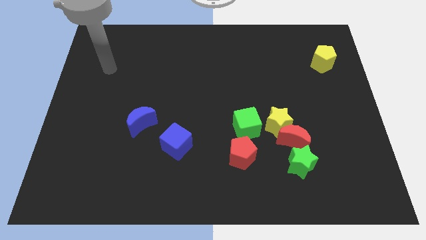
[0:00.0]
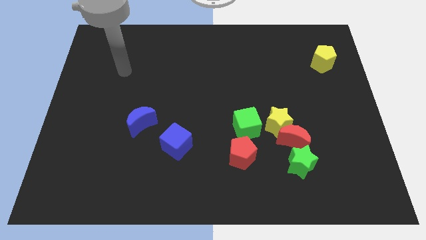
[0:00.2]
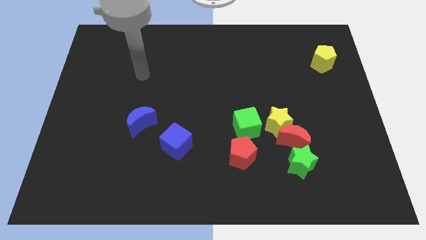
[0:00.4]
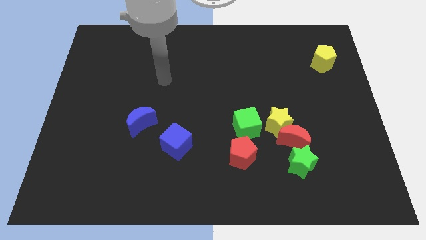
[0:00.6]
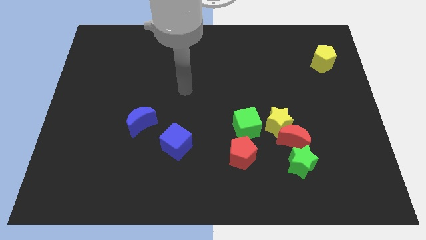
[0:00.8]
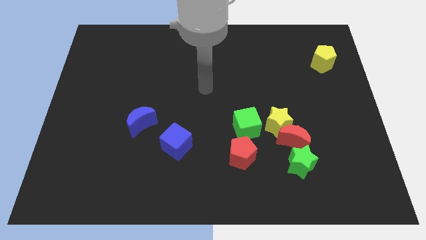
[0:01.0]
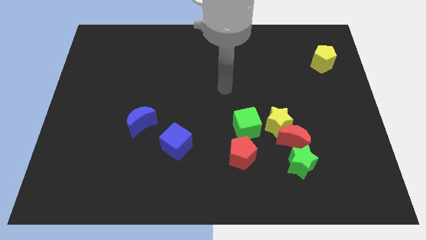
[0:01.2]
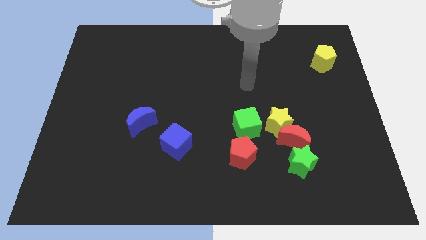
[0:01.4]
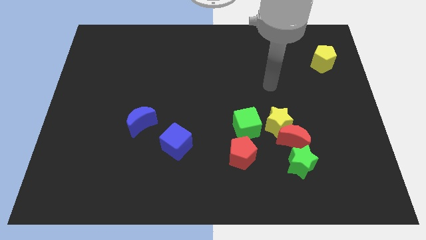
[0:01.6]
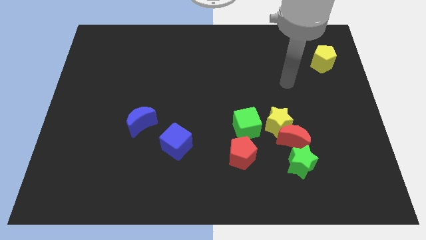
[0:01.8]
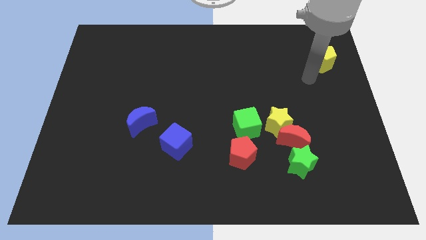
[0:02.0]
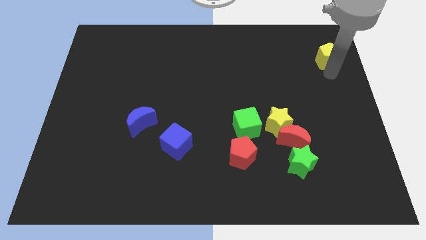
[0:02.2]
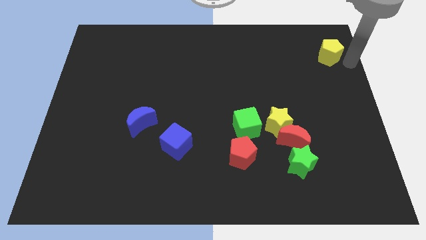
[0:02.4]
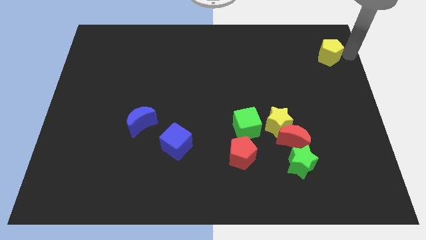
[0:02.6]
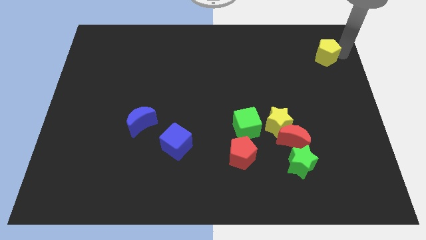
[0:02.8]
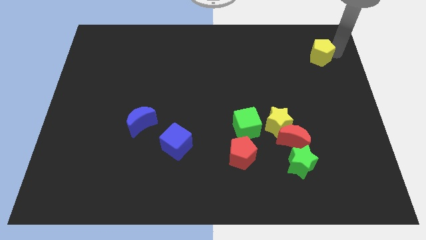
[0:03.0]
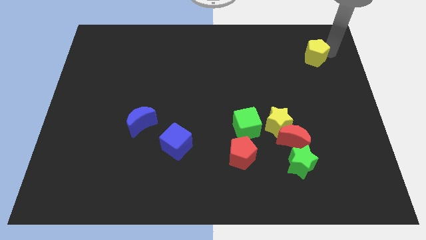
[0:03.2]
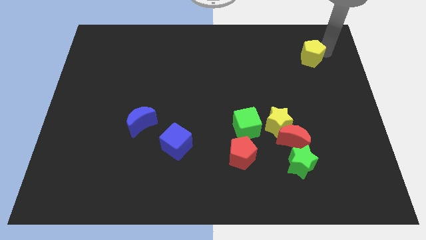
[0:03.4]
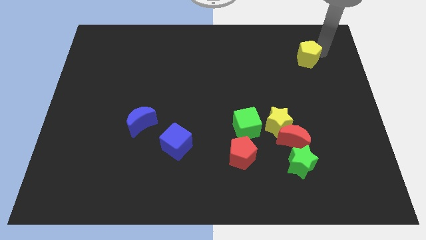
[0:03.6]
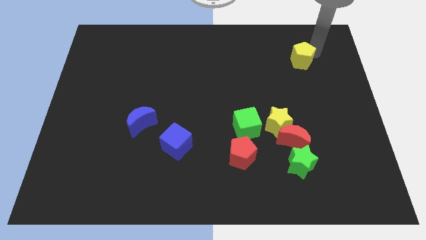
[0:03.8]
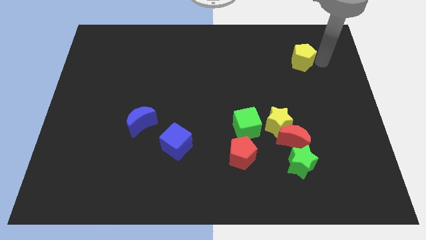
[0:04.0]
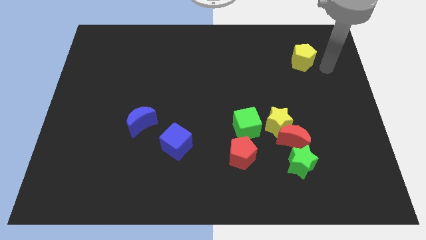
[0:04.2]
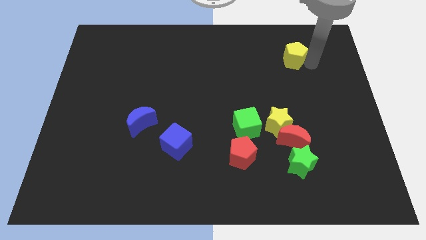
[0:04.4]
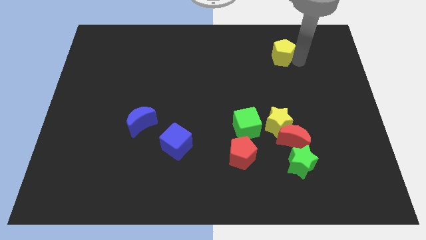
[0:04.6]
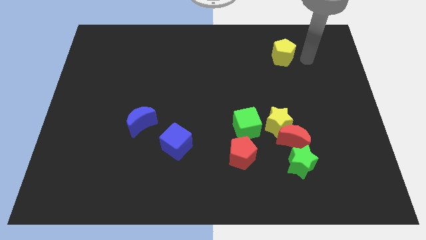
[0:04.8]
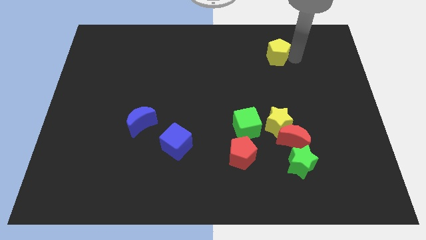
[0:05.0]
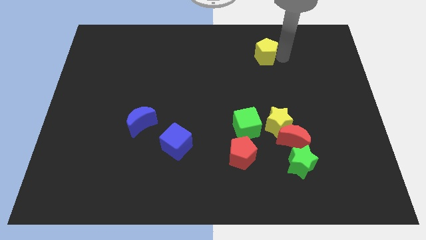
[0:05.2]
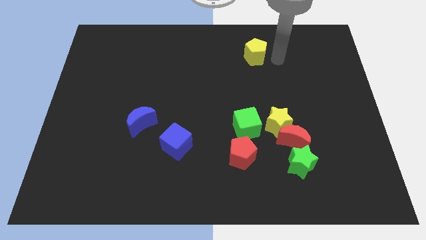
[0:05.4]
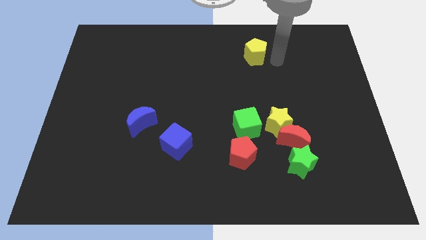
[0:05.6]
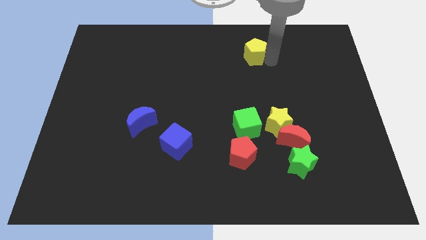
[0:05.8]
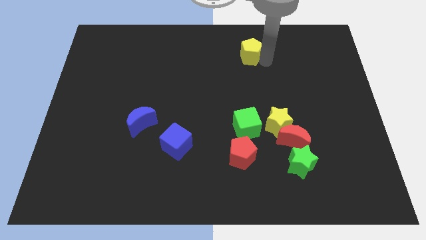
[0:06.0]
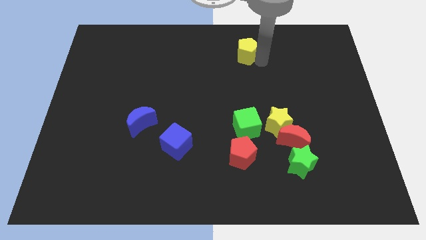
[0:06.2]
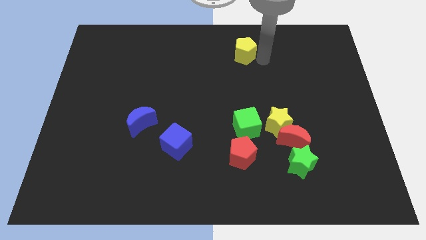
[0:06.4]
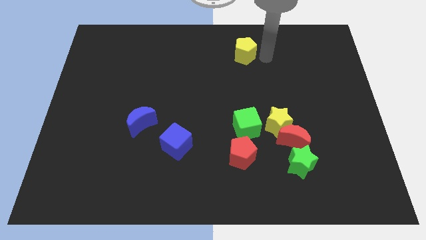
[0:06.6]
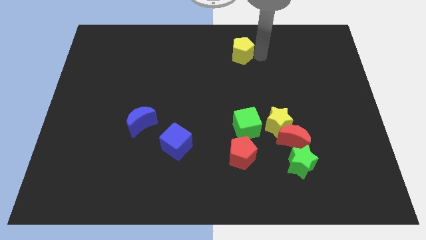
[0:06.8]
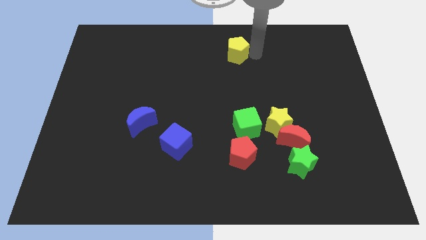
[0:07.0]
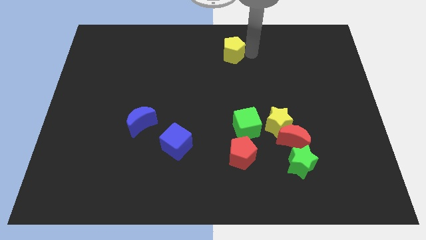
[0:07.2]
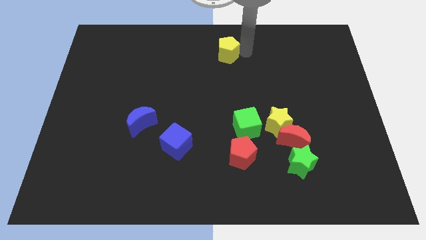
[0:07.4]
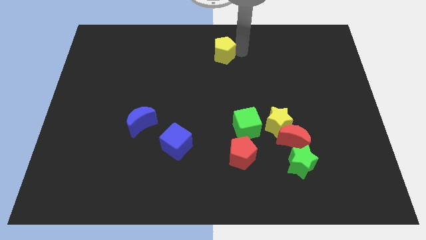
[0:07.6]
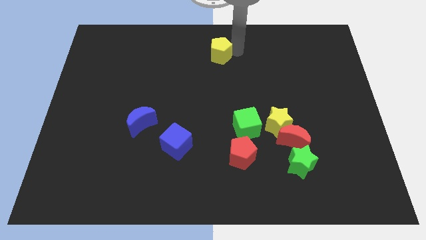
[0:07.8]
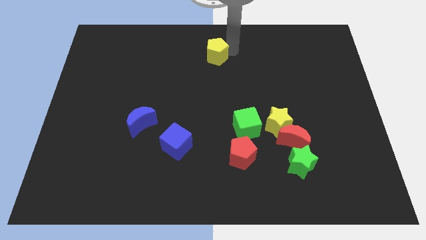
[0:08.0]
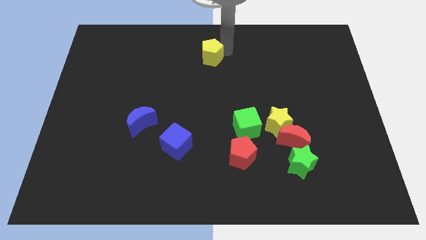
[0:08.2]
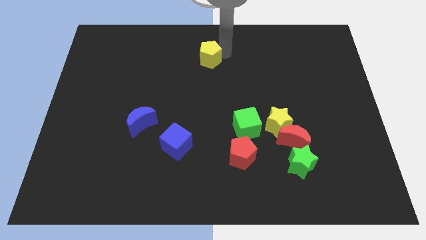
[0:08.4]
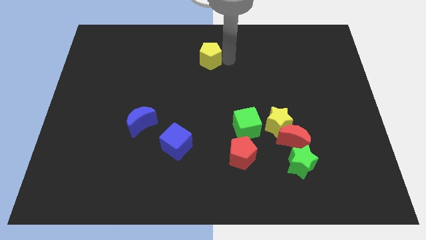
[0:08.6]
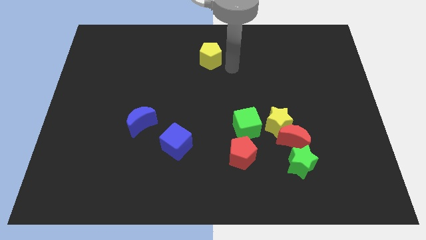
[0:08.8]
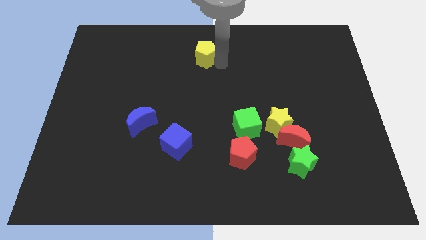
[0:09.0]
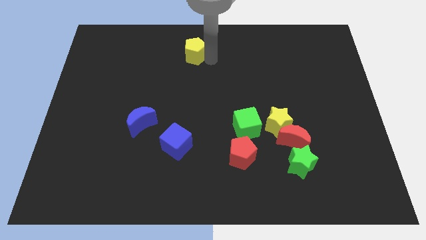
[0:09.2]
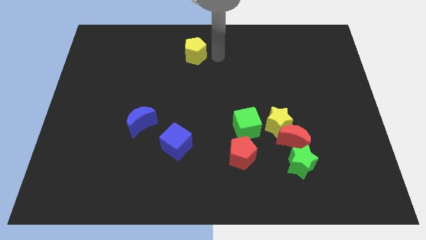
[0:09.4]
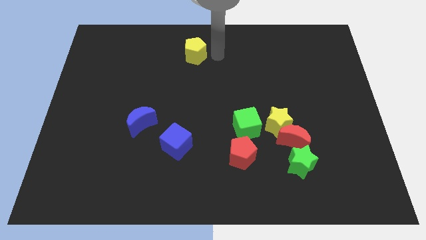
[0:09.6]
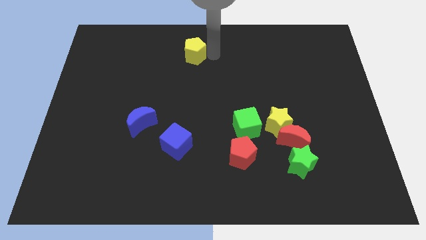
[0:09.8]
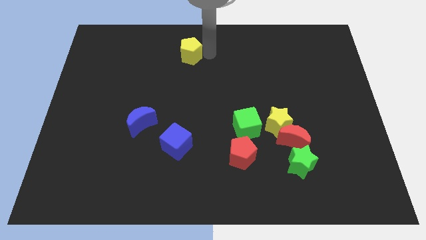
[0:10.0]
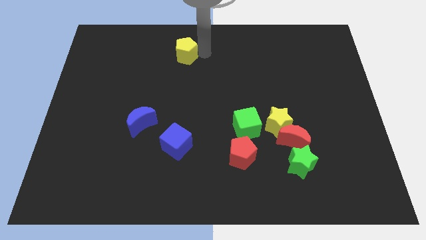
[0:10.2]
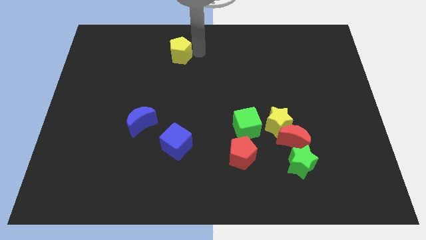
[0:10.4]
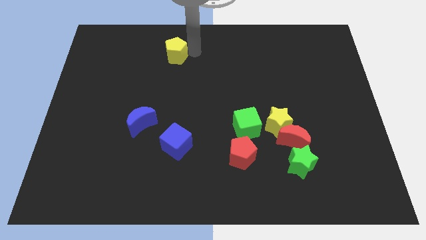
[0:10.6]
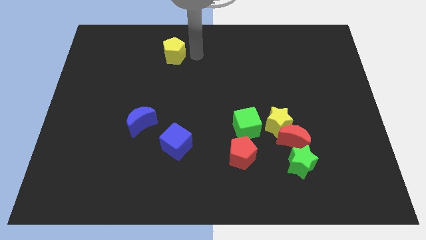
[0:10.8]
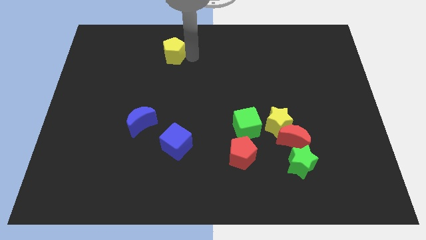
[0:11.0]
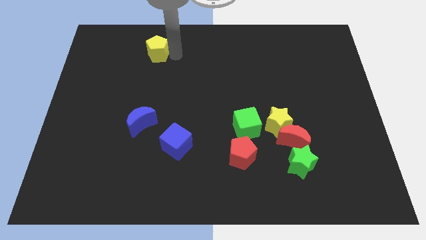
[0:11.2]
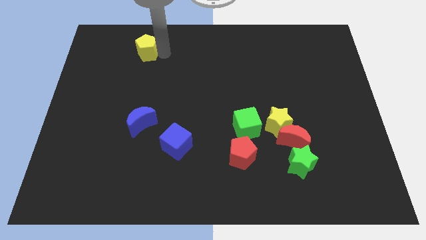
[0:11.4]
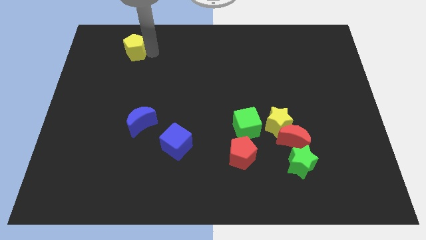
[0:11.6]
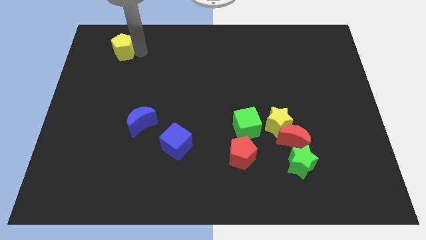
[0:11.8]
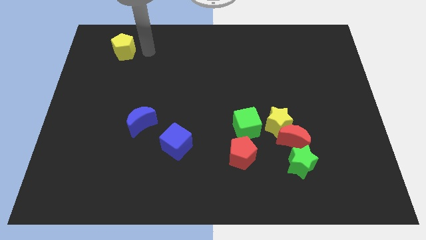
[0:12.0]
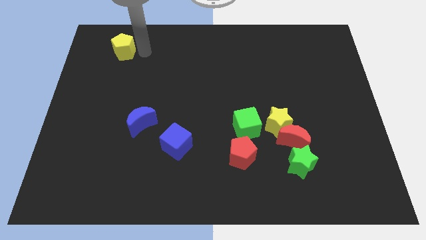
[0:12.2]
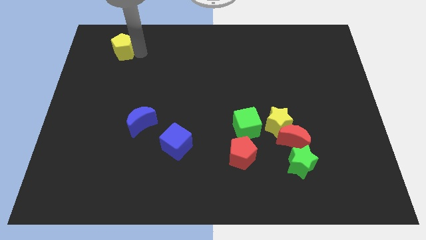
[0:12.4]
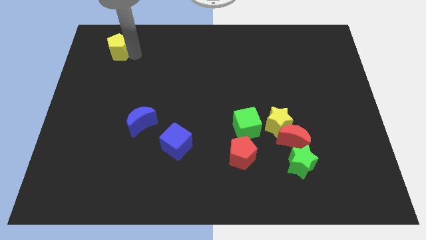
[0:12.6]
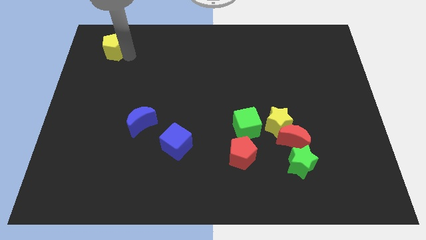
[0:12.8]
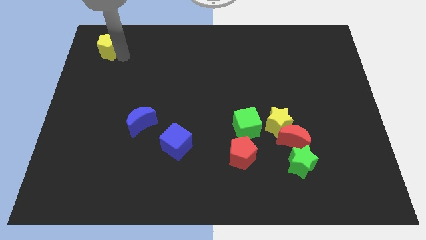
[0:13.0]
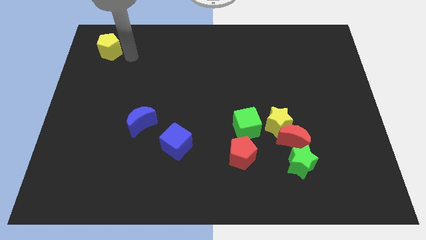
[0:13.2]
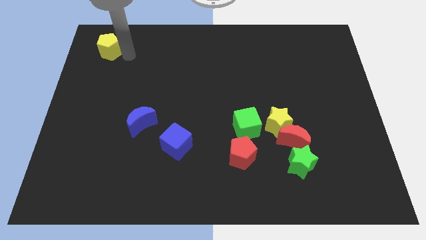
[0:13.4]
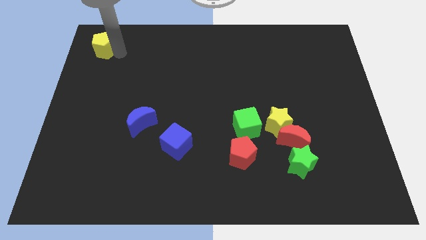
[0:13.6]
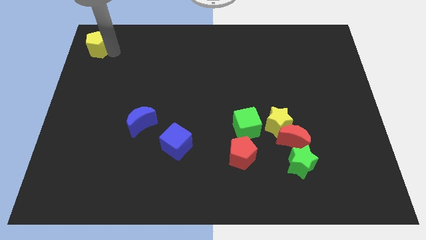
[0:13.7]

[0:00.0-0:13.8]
push the yellow pentagon to the upper left corner
